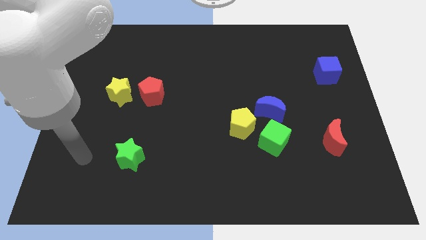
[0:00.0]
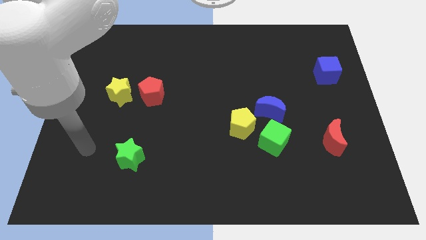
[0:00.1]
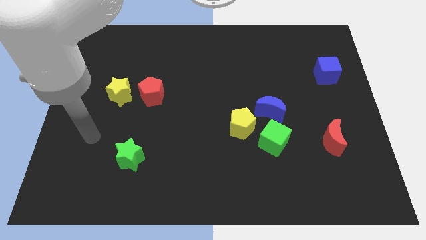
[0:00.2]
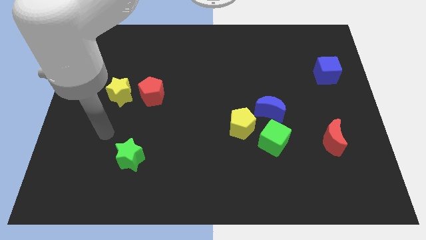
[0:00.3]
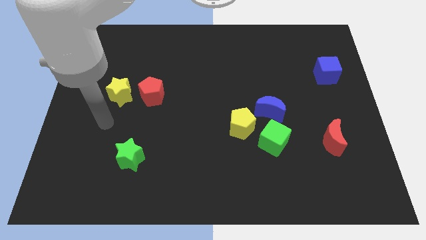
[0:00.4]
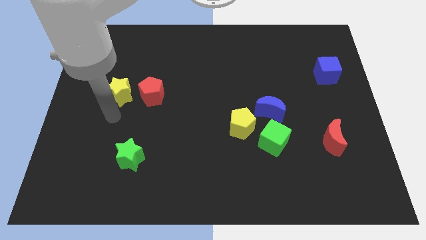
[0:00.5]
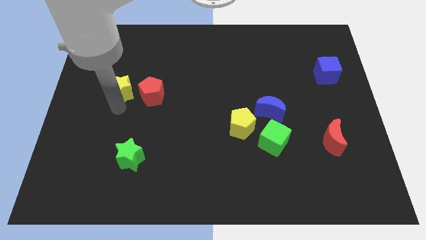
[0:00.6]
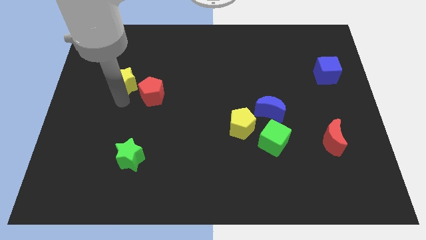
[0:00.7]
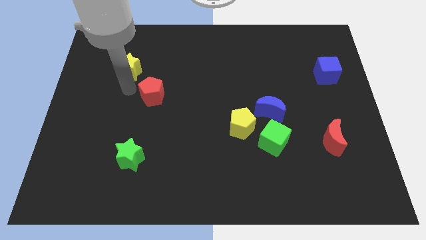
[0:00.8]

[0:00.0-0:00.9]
move the red pentagon away from the yellow star

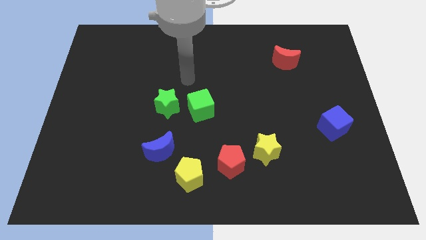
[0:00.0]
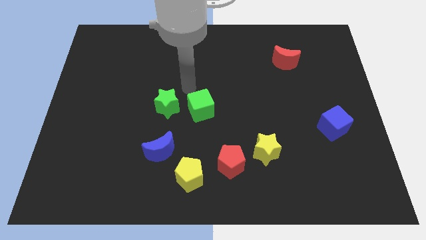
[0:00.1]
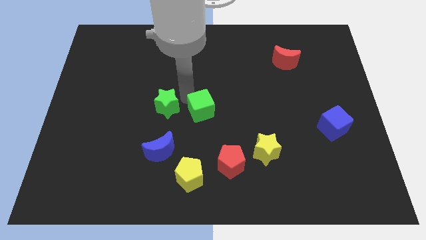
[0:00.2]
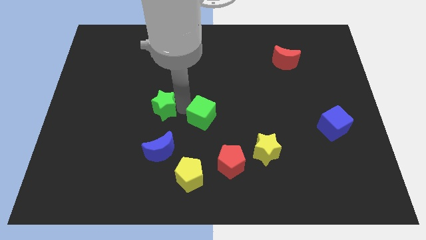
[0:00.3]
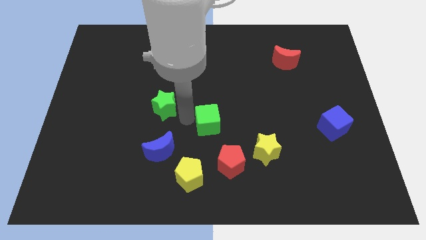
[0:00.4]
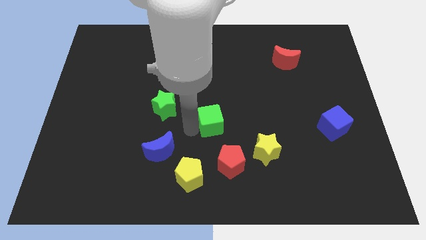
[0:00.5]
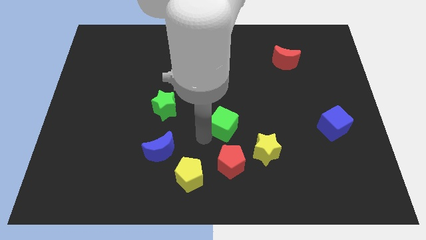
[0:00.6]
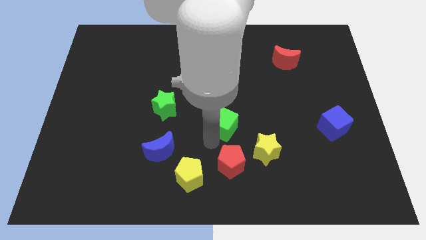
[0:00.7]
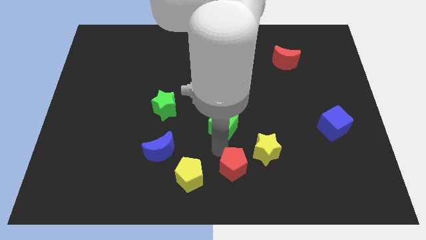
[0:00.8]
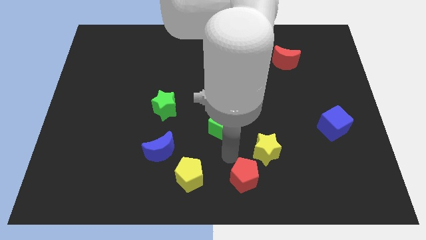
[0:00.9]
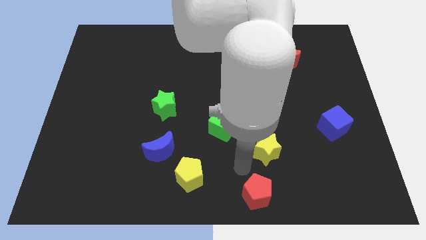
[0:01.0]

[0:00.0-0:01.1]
separate the yellow star from the red pentagon

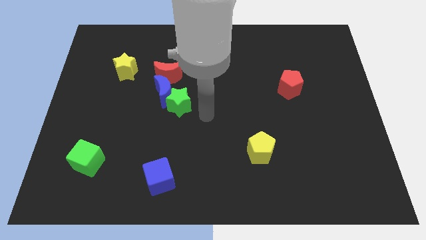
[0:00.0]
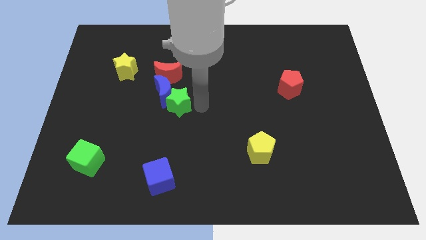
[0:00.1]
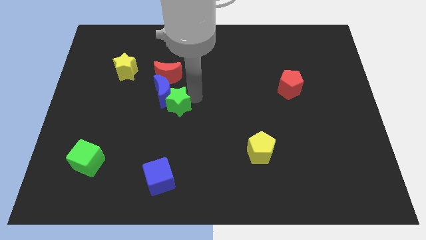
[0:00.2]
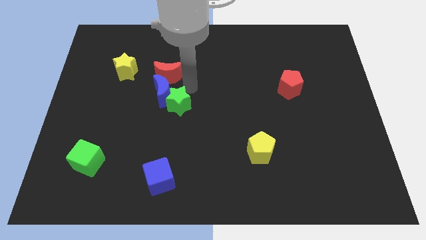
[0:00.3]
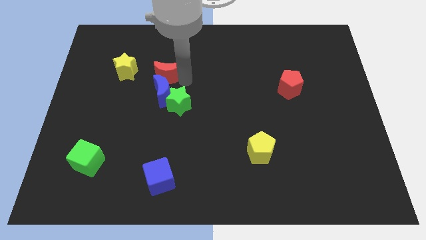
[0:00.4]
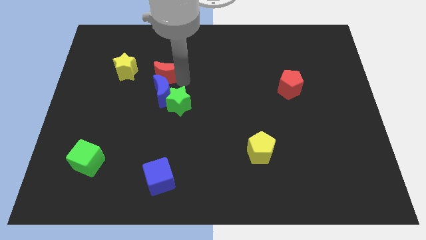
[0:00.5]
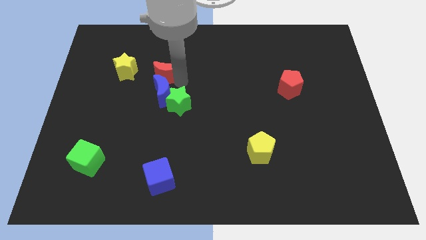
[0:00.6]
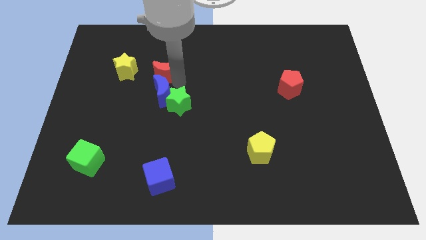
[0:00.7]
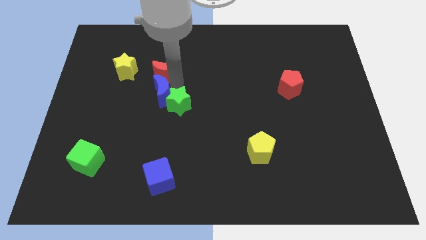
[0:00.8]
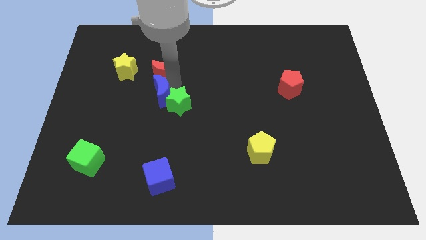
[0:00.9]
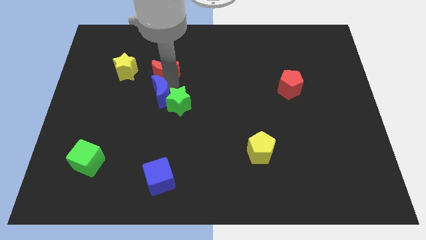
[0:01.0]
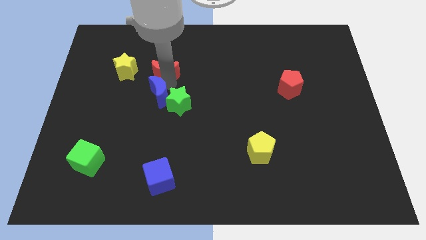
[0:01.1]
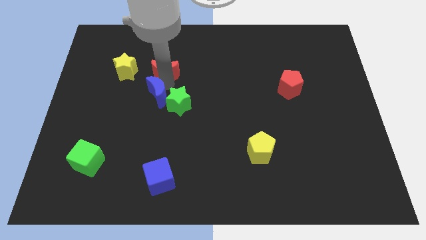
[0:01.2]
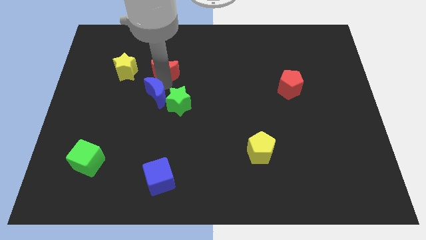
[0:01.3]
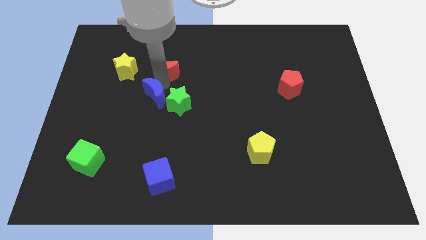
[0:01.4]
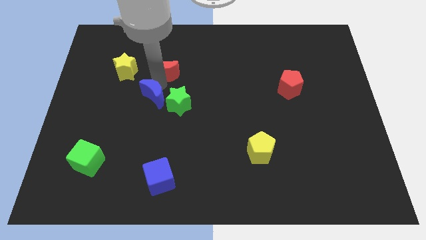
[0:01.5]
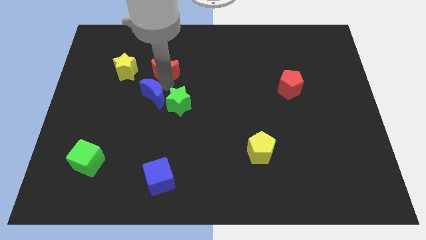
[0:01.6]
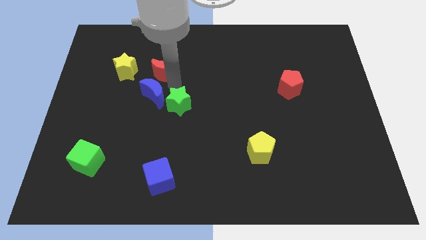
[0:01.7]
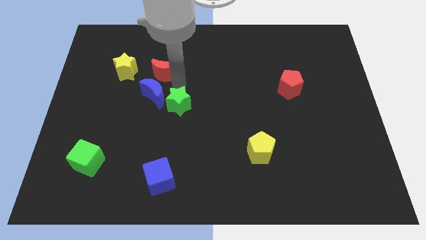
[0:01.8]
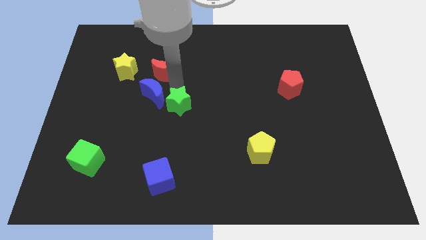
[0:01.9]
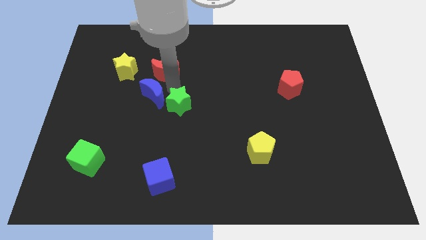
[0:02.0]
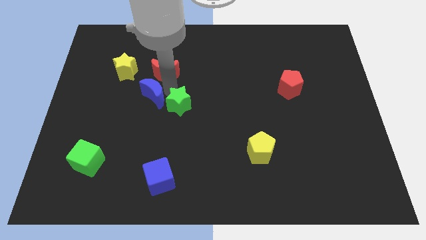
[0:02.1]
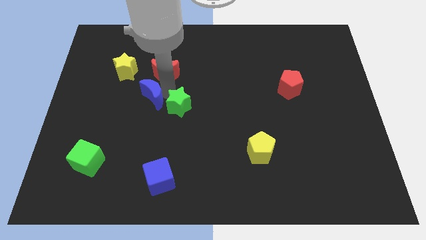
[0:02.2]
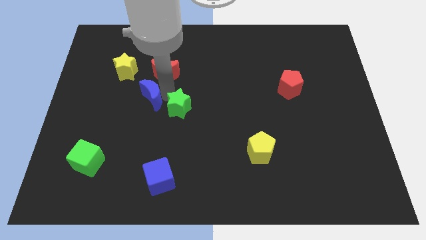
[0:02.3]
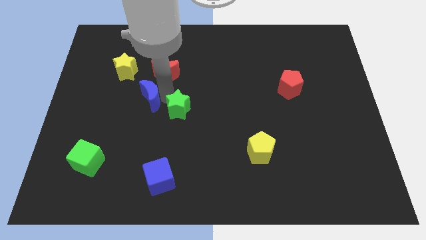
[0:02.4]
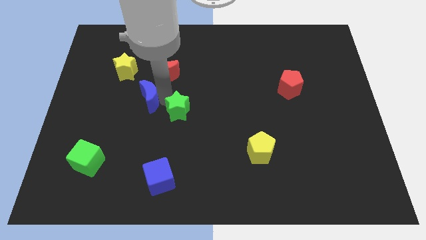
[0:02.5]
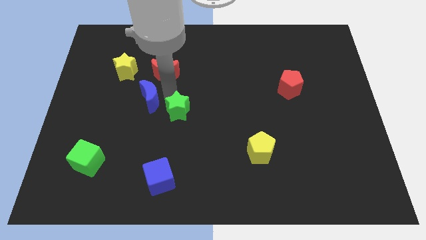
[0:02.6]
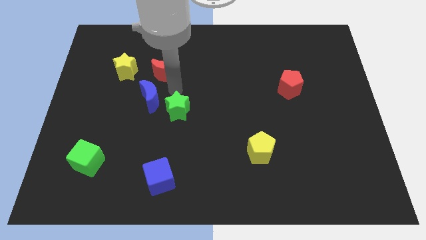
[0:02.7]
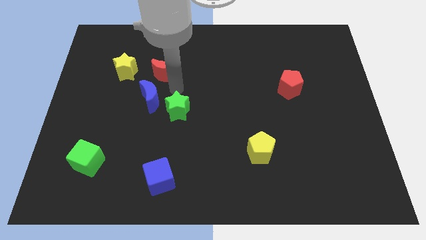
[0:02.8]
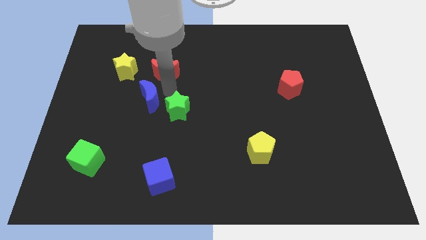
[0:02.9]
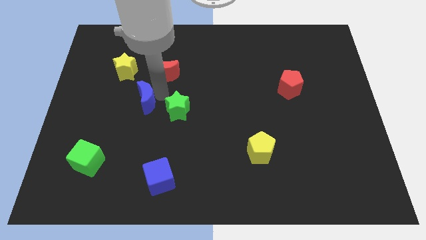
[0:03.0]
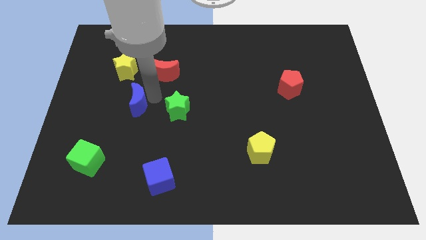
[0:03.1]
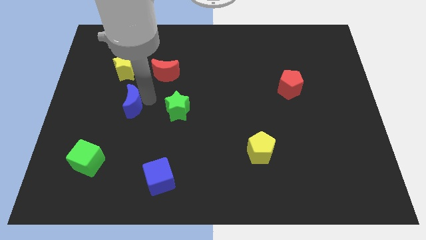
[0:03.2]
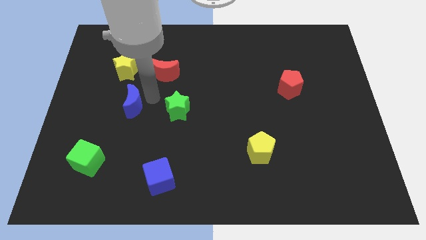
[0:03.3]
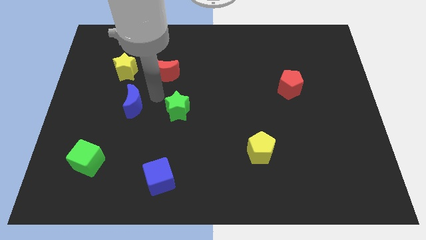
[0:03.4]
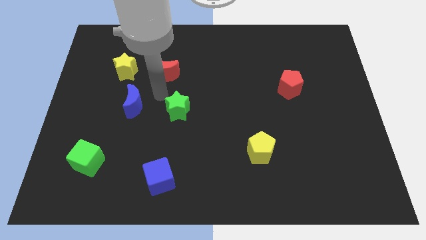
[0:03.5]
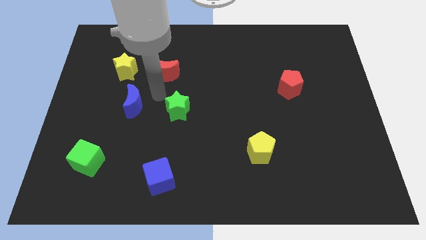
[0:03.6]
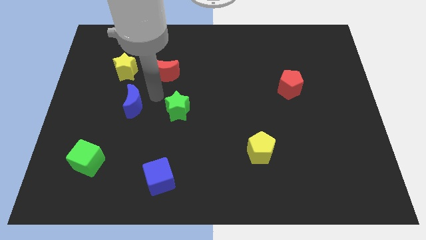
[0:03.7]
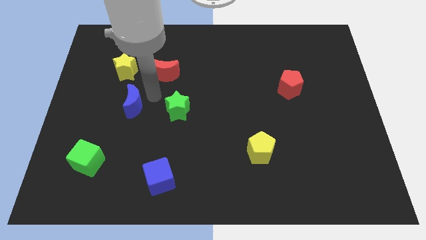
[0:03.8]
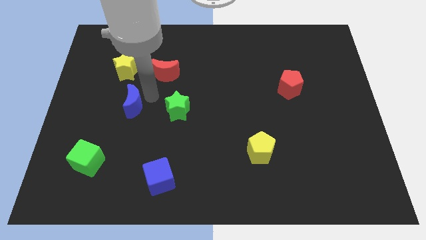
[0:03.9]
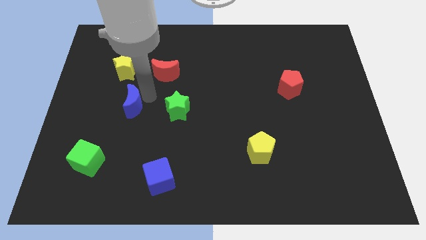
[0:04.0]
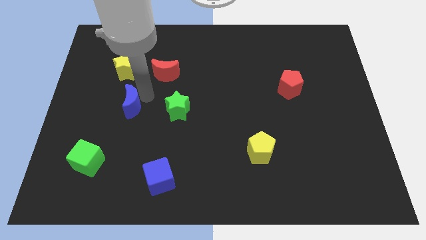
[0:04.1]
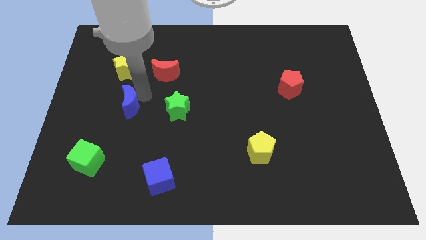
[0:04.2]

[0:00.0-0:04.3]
pull the blue moon apart from the green star and red moon

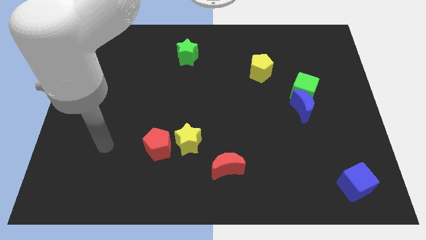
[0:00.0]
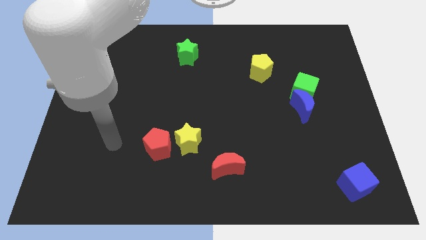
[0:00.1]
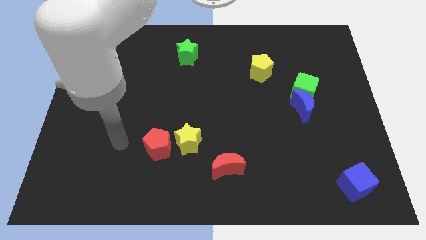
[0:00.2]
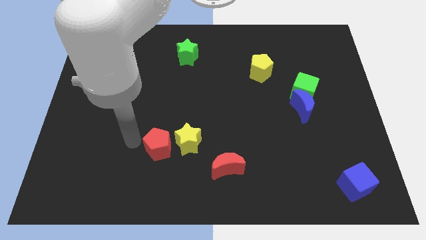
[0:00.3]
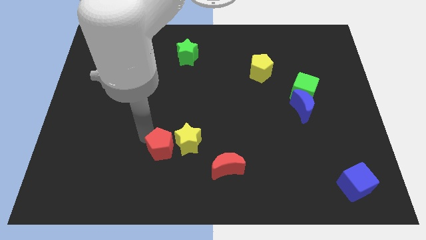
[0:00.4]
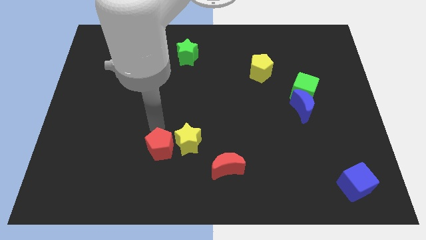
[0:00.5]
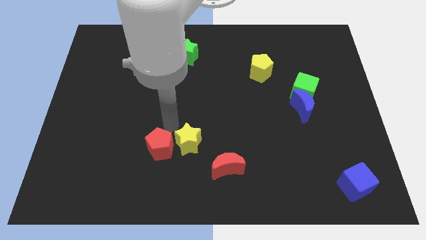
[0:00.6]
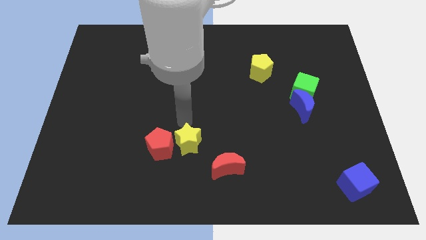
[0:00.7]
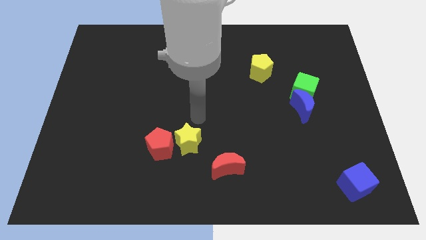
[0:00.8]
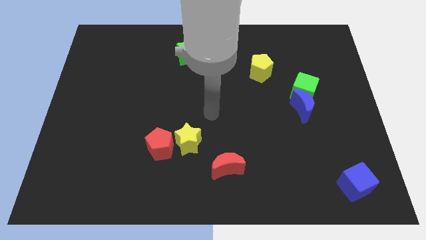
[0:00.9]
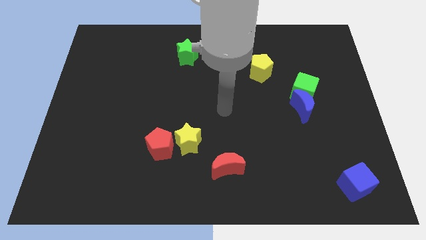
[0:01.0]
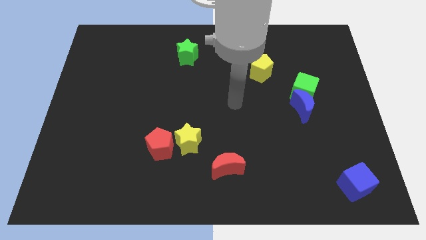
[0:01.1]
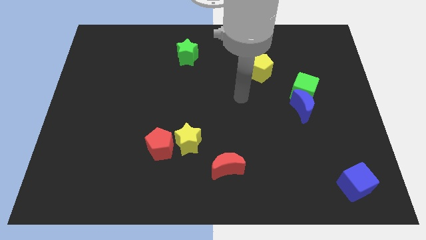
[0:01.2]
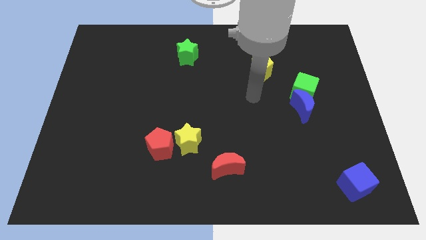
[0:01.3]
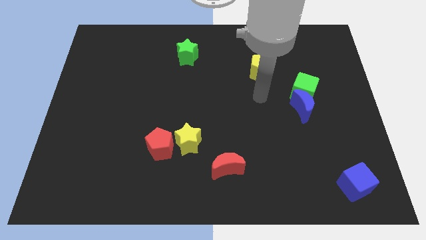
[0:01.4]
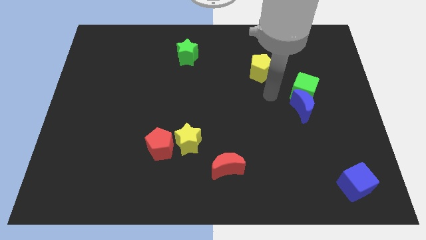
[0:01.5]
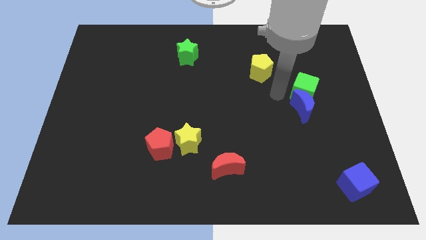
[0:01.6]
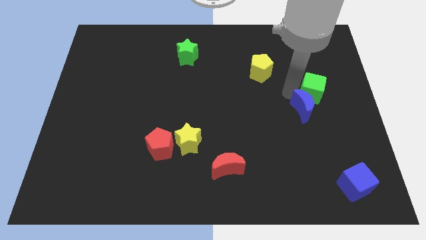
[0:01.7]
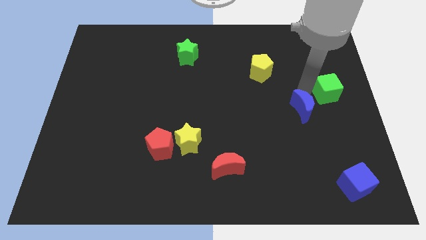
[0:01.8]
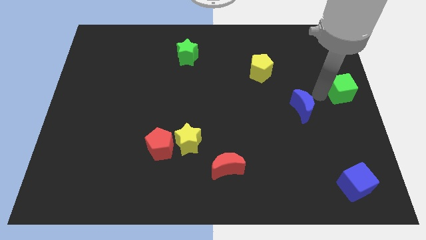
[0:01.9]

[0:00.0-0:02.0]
move the blue moon away from the green cube

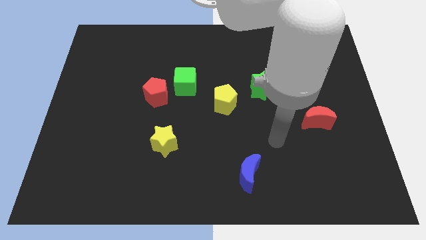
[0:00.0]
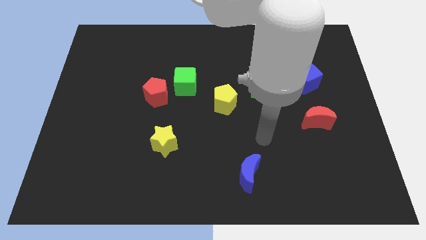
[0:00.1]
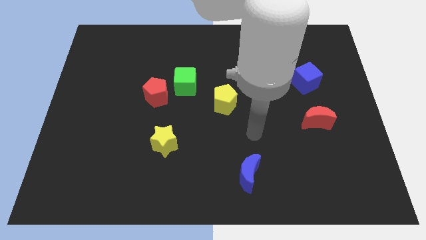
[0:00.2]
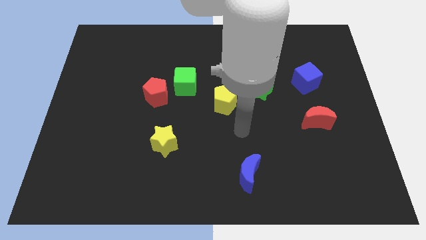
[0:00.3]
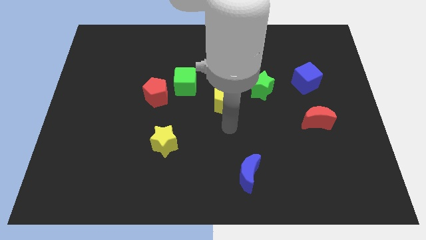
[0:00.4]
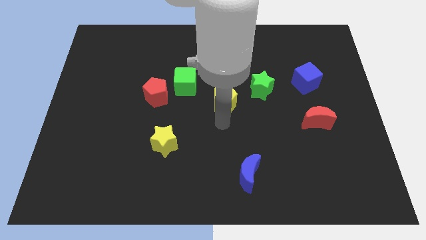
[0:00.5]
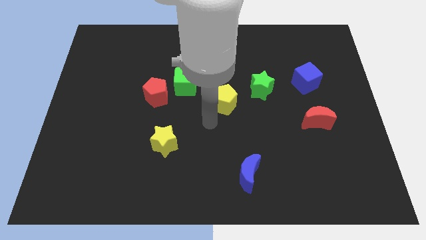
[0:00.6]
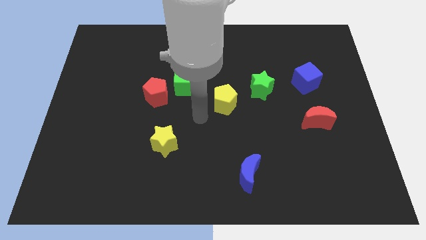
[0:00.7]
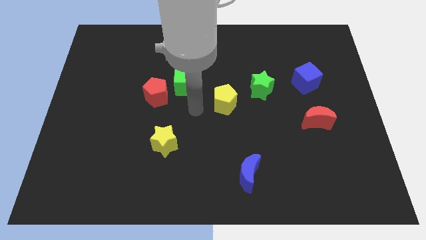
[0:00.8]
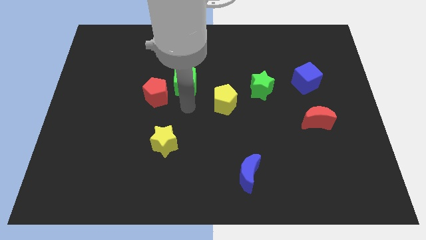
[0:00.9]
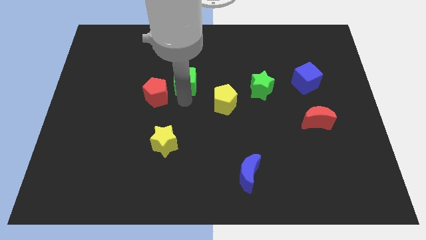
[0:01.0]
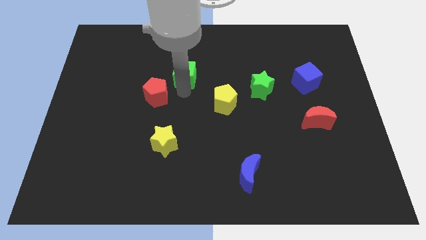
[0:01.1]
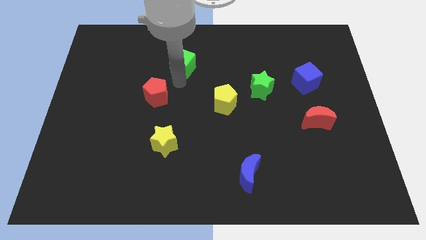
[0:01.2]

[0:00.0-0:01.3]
separate the red pentagon from the green cube
